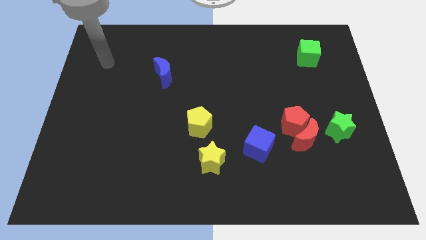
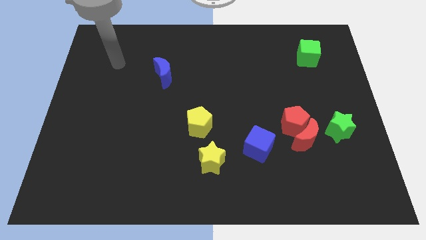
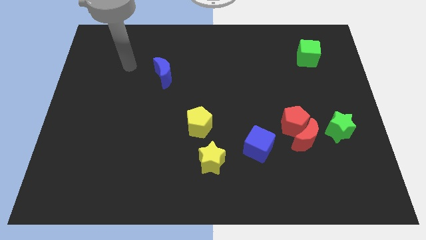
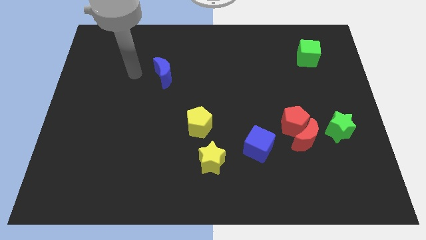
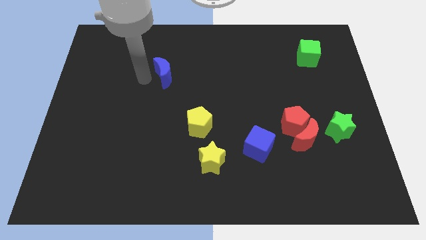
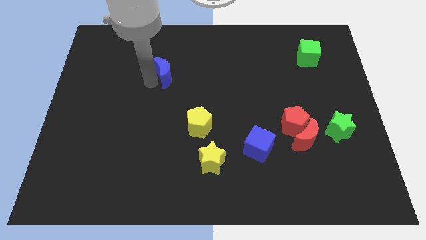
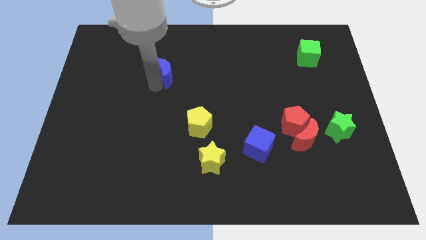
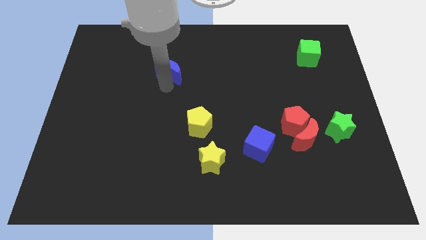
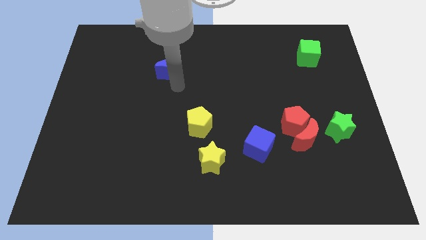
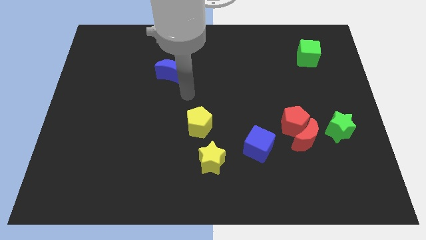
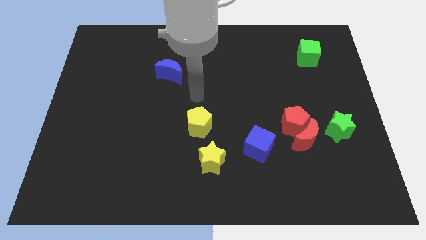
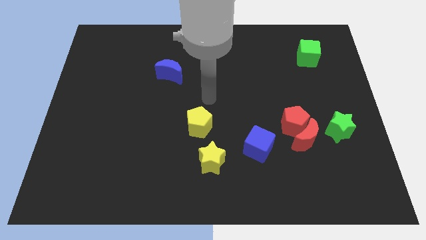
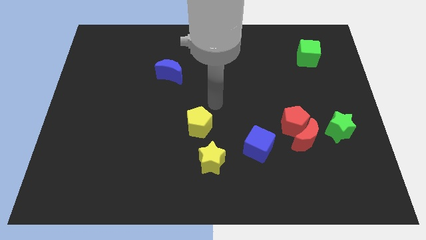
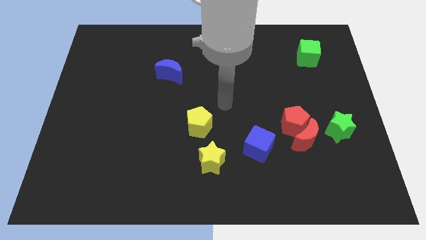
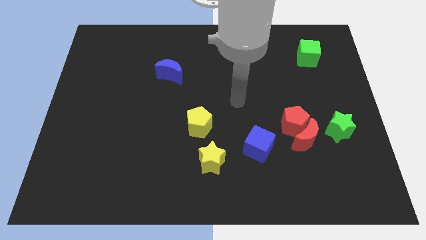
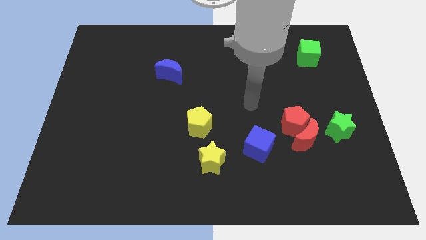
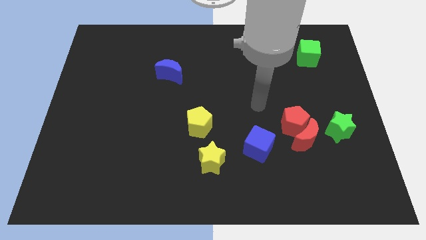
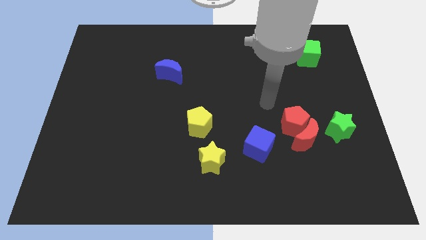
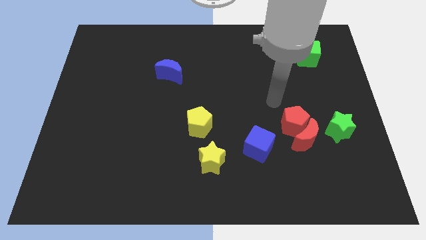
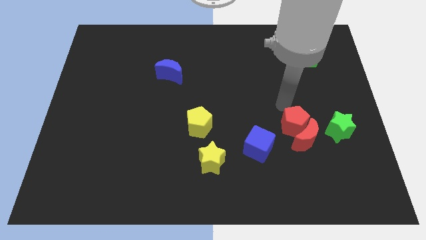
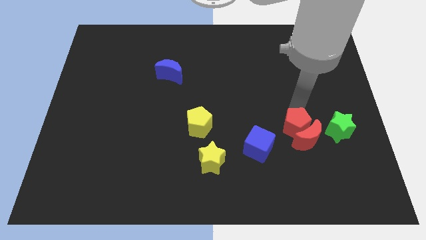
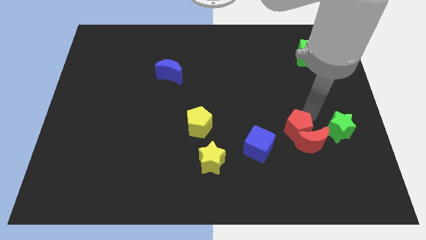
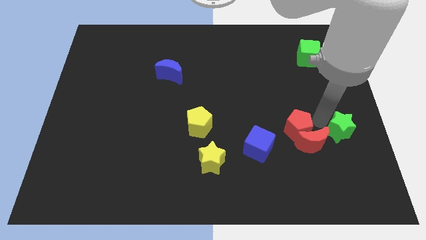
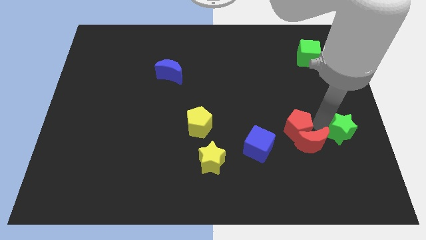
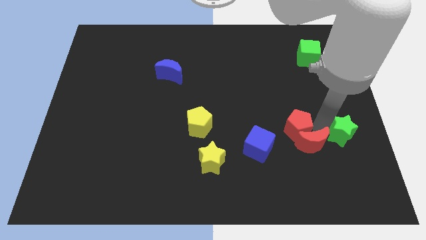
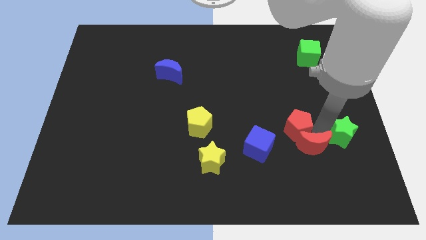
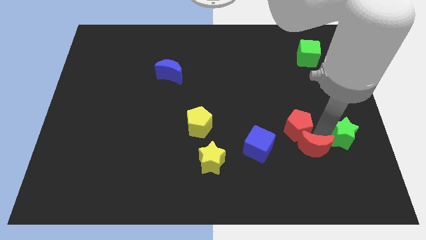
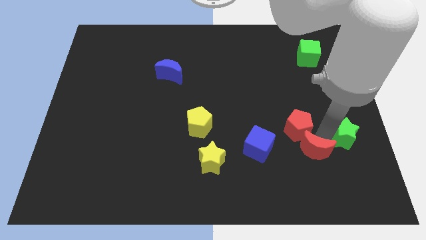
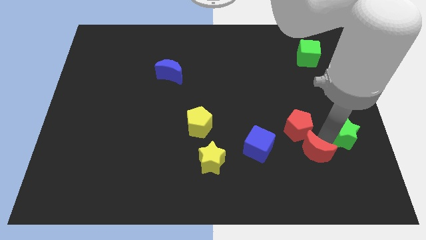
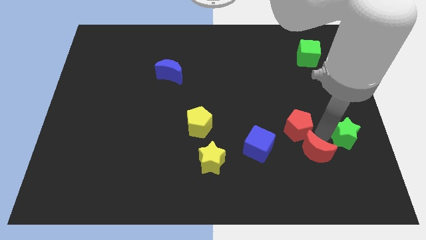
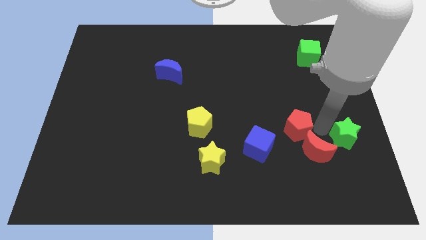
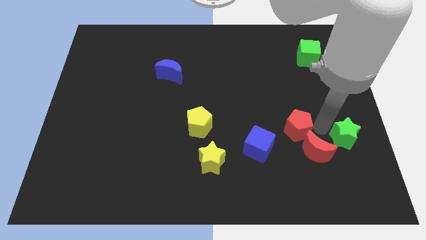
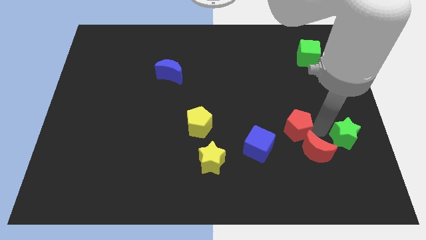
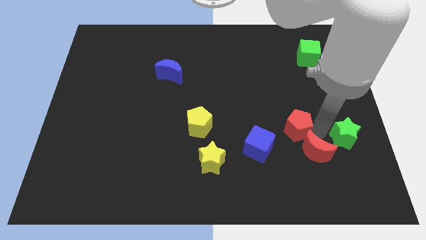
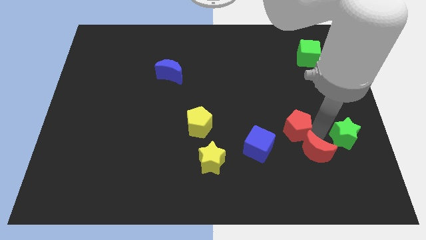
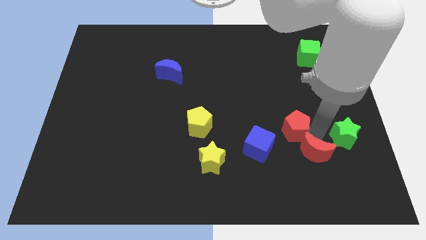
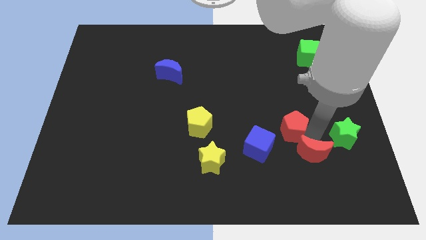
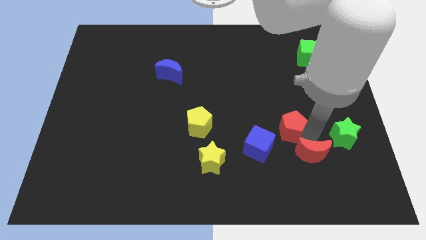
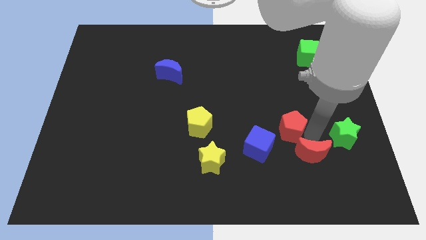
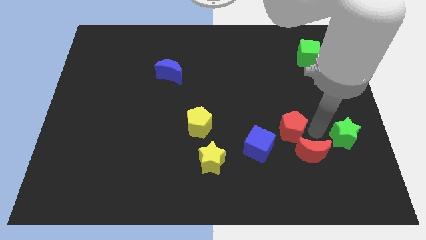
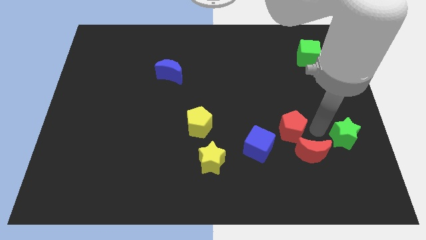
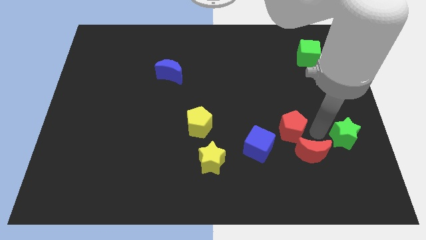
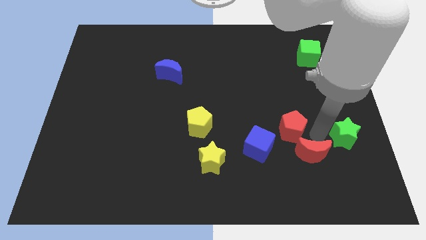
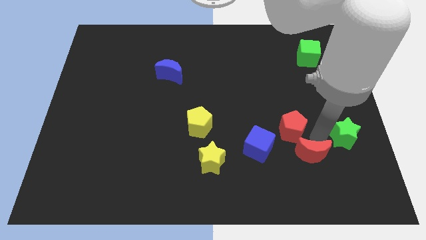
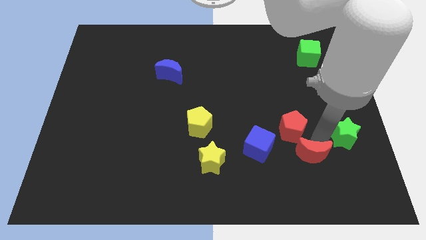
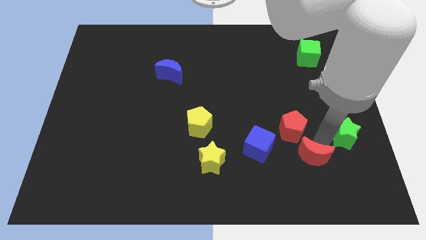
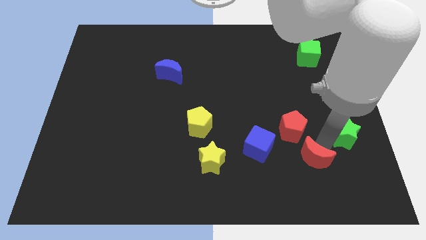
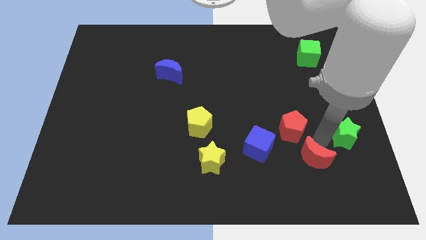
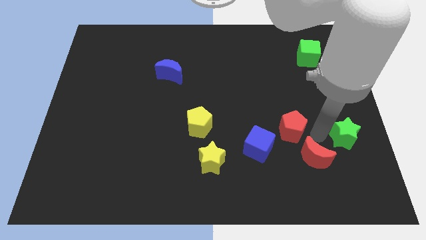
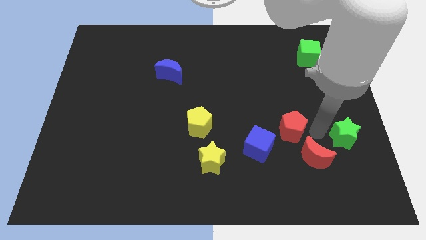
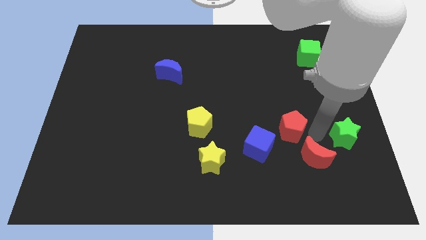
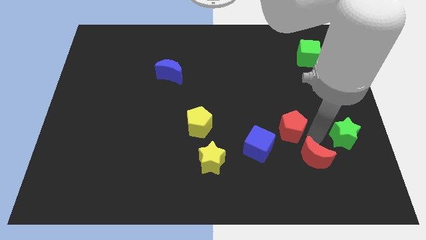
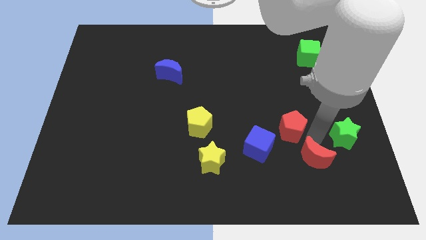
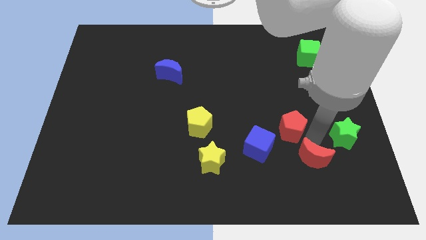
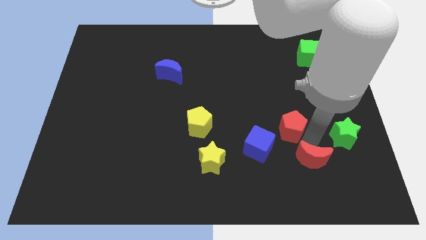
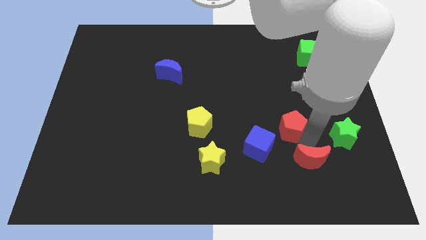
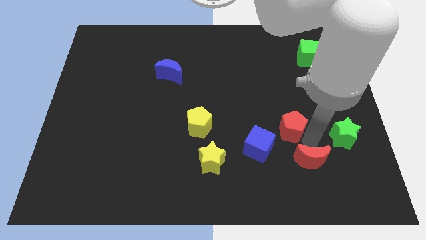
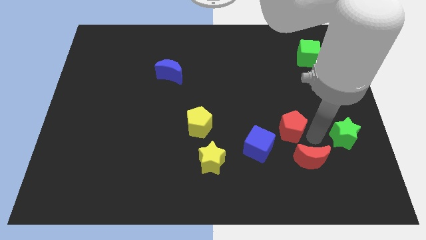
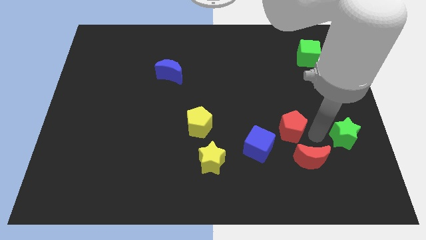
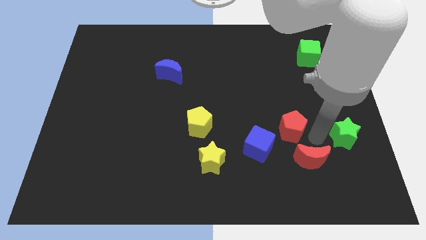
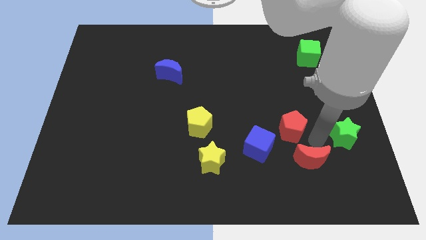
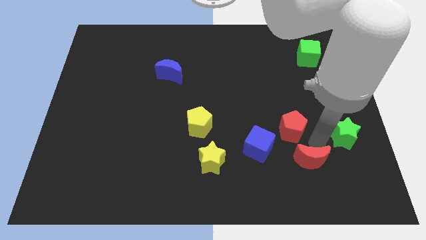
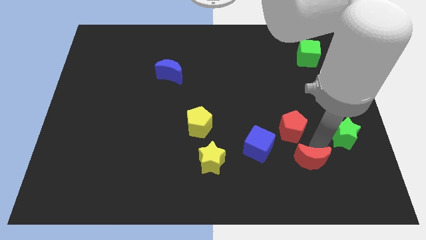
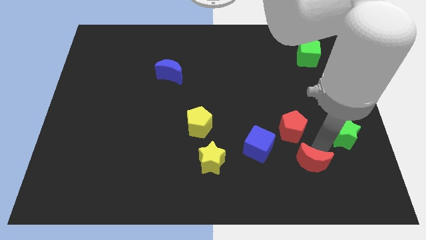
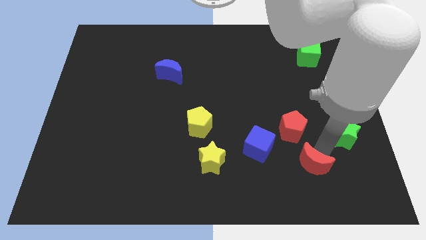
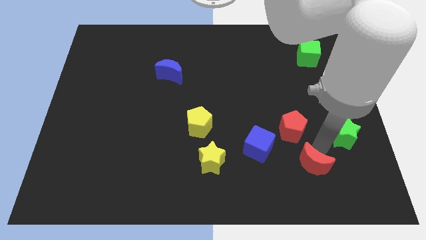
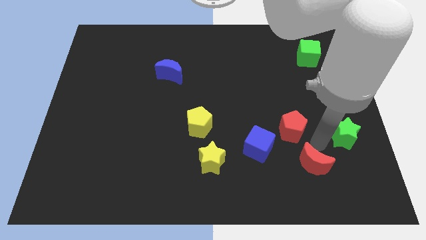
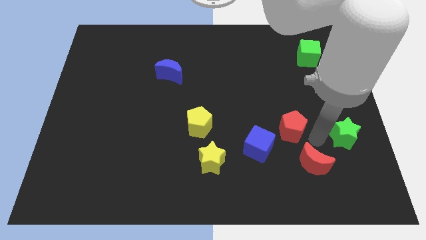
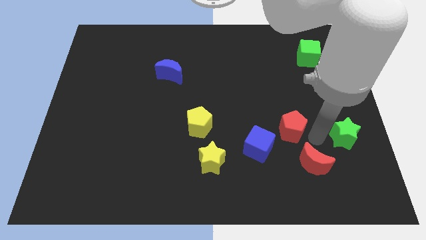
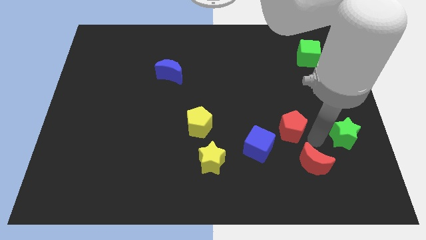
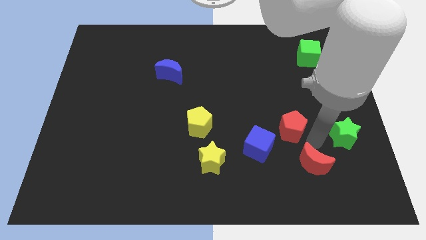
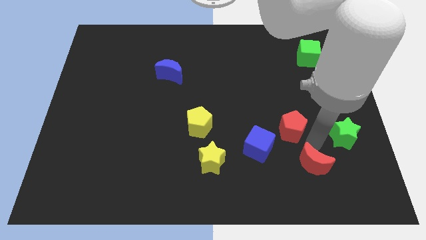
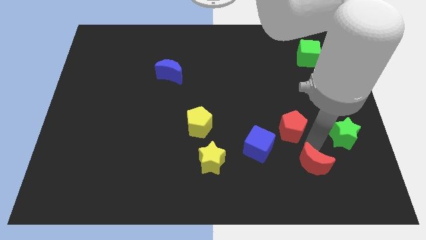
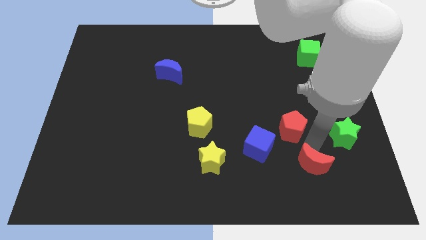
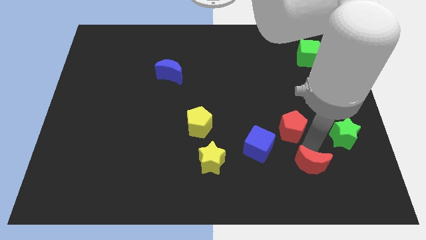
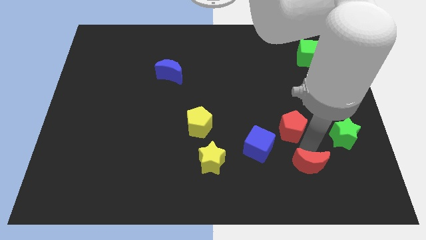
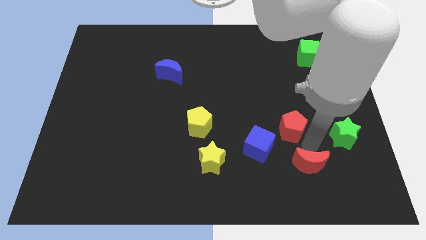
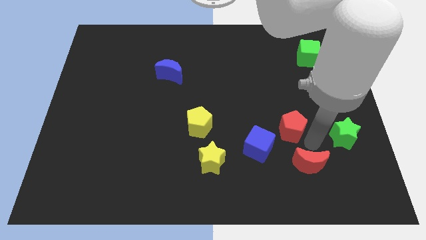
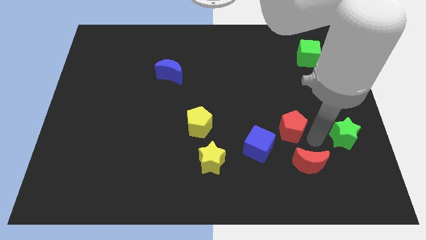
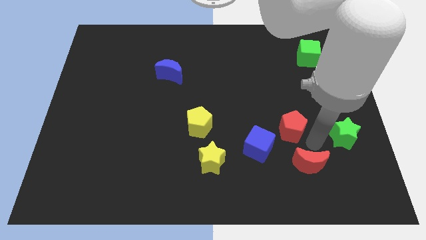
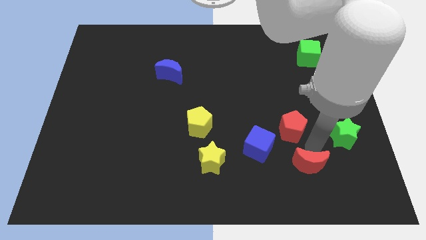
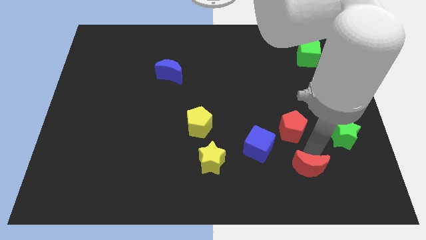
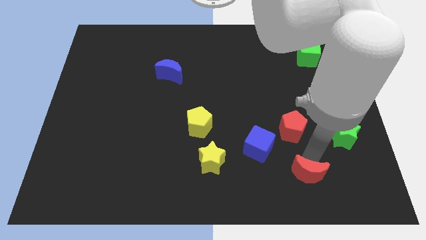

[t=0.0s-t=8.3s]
move the red moon away from the red pentagon and green star

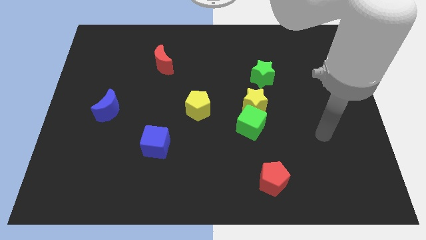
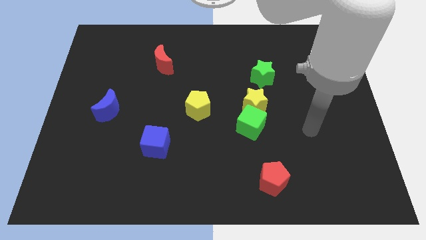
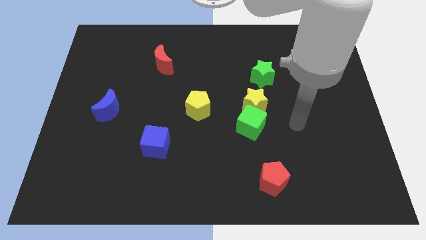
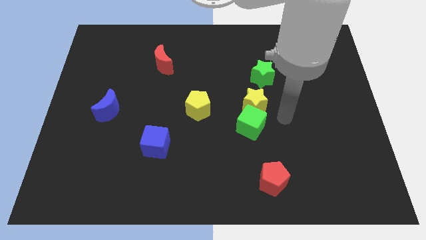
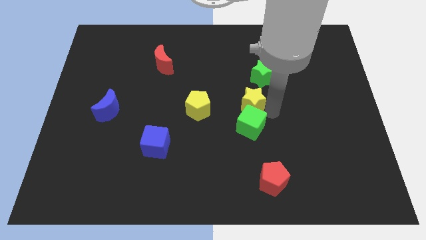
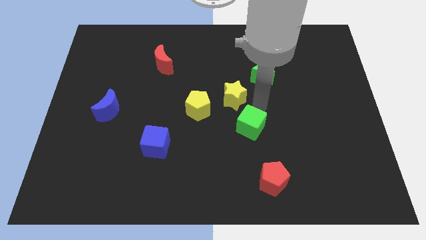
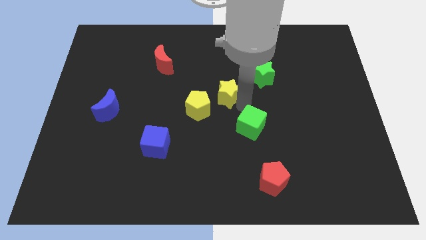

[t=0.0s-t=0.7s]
pull the green cube apart from the yellow star

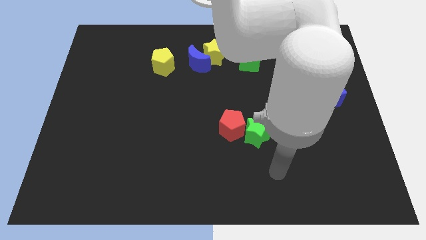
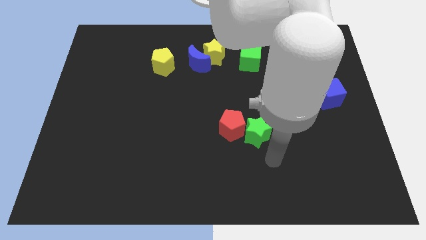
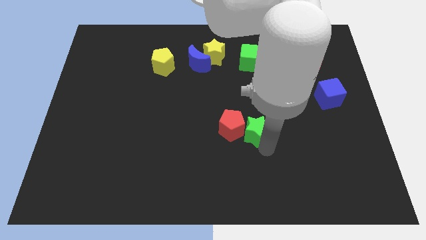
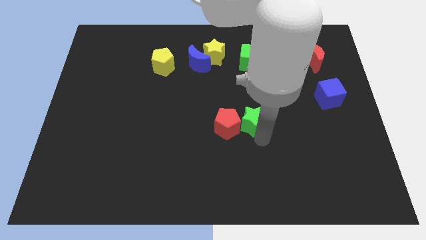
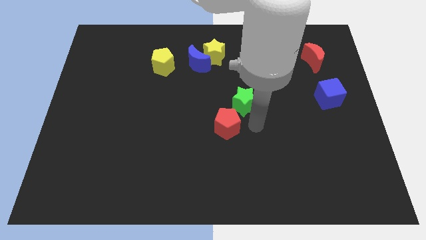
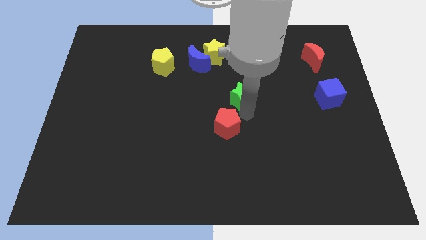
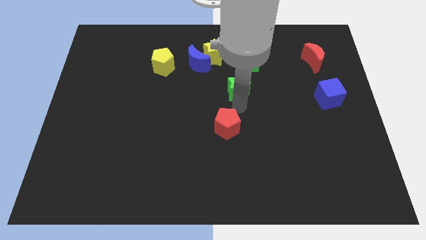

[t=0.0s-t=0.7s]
separate the red pentagon from the green star
